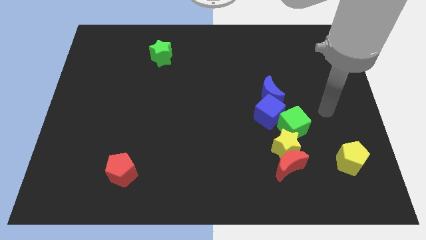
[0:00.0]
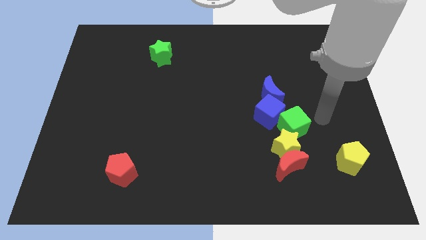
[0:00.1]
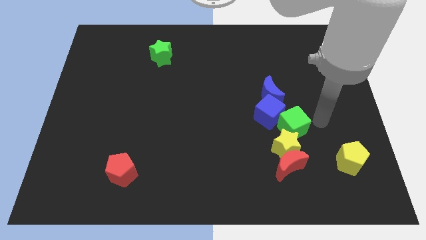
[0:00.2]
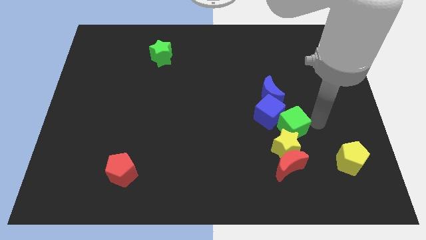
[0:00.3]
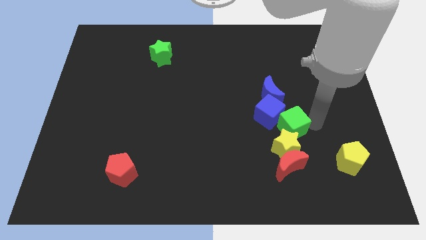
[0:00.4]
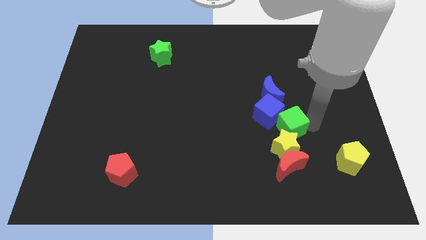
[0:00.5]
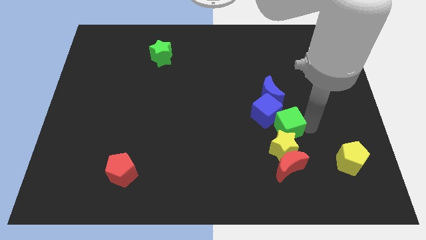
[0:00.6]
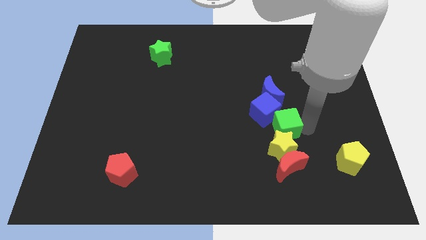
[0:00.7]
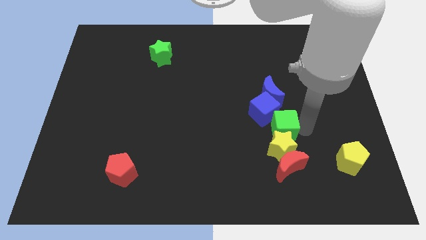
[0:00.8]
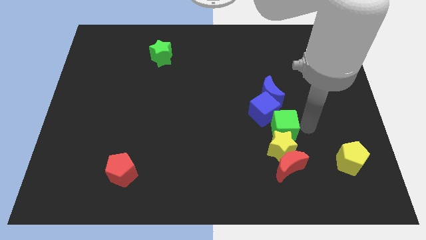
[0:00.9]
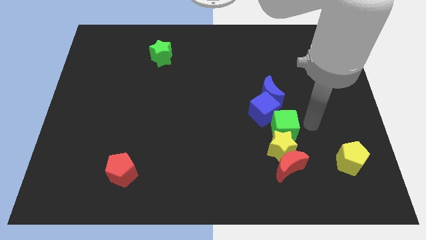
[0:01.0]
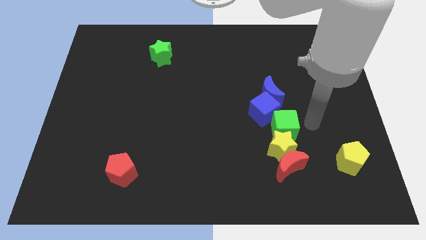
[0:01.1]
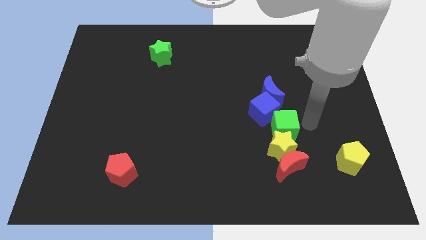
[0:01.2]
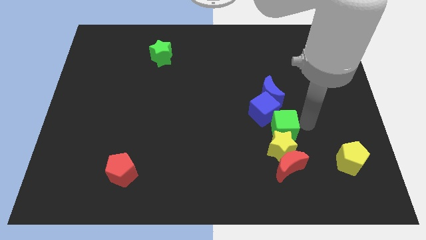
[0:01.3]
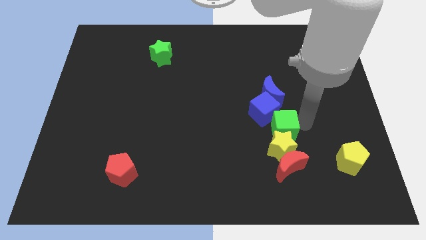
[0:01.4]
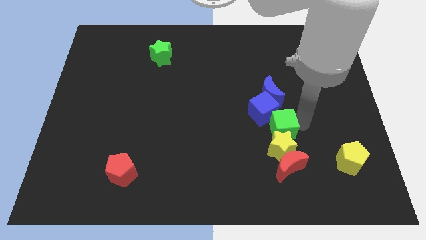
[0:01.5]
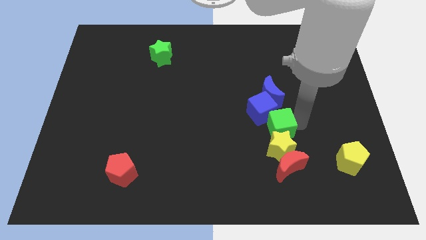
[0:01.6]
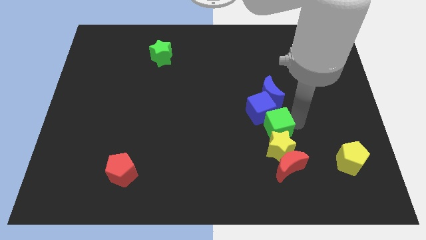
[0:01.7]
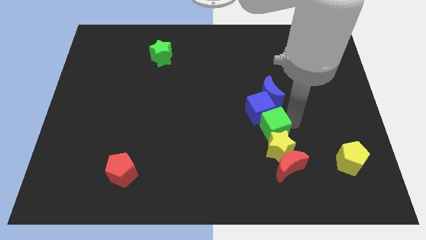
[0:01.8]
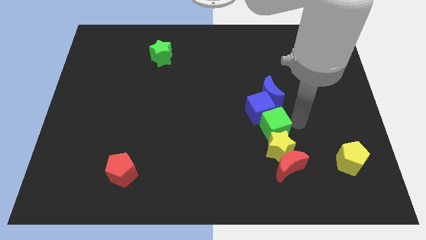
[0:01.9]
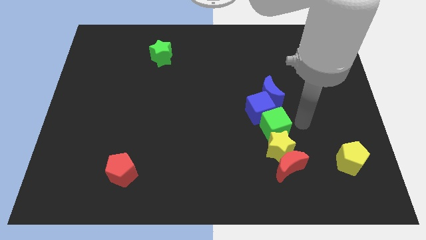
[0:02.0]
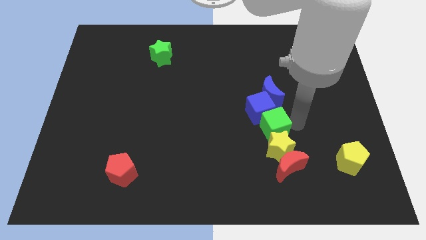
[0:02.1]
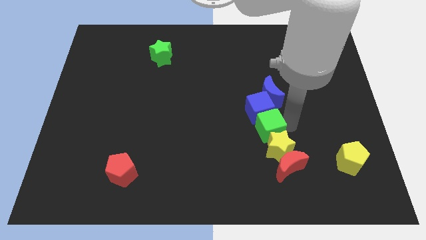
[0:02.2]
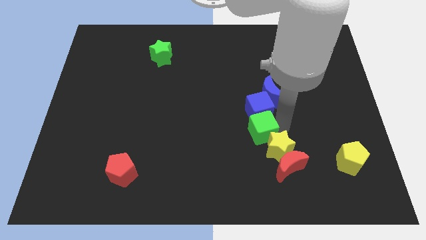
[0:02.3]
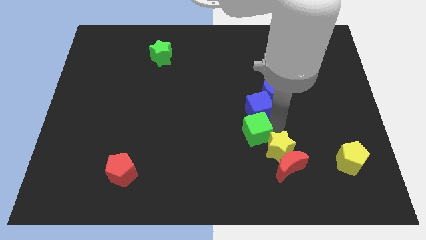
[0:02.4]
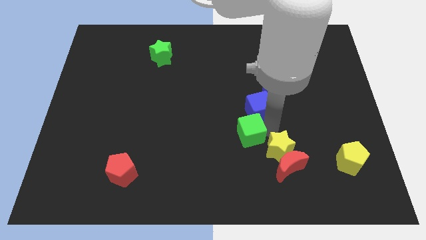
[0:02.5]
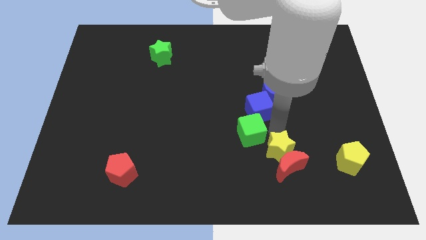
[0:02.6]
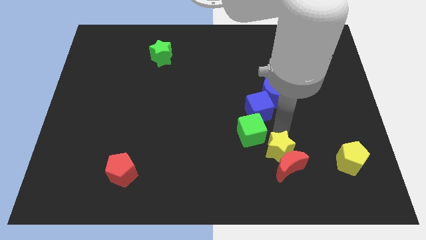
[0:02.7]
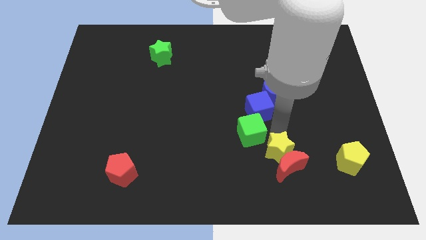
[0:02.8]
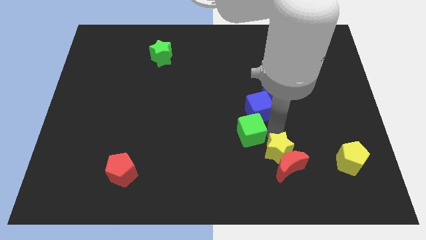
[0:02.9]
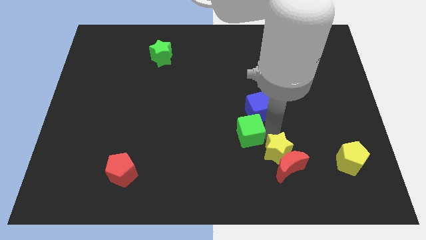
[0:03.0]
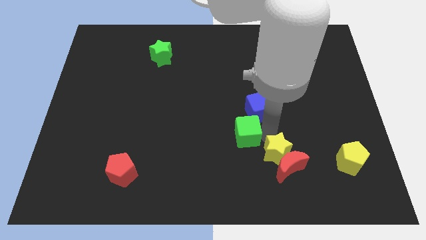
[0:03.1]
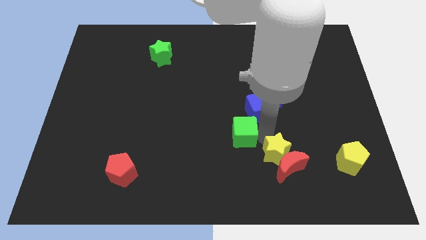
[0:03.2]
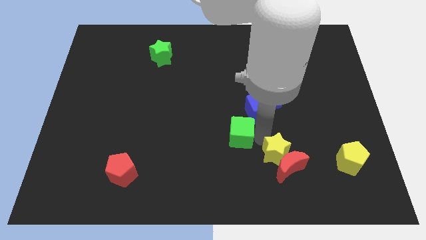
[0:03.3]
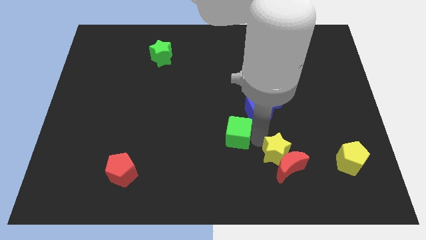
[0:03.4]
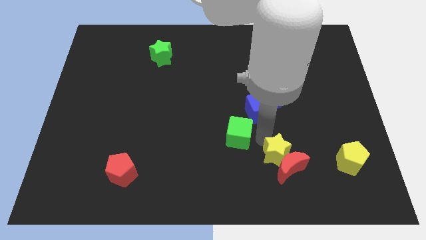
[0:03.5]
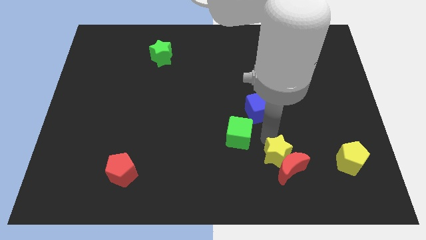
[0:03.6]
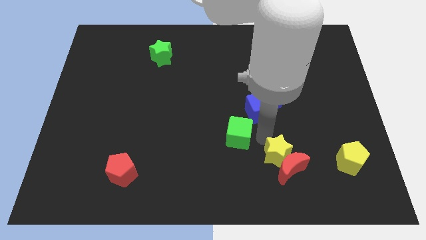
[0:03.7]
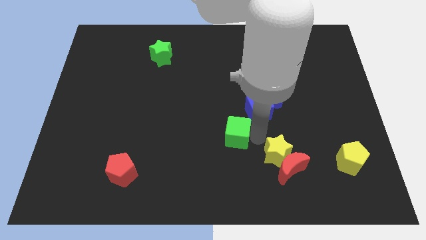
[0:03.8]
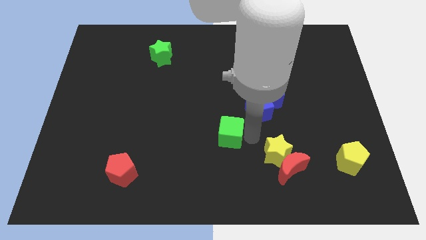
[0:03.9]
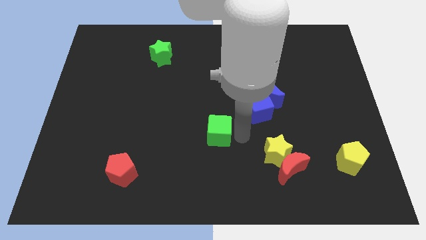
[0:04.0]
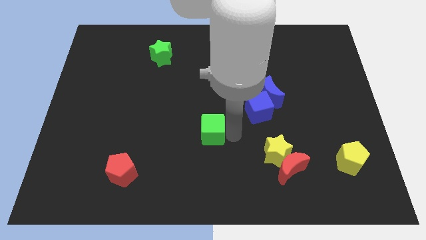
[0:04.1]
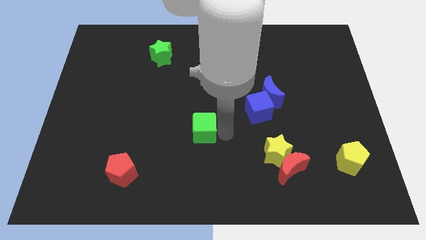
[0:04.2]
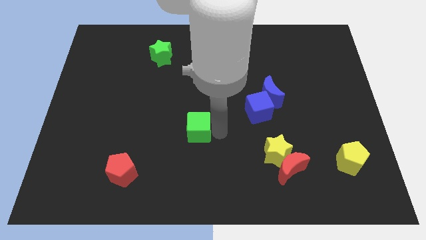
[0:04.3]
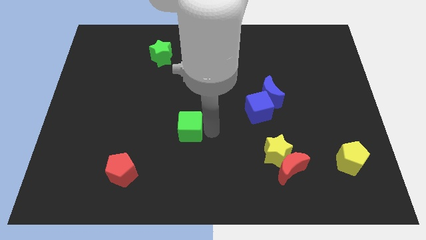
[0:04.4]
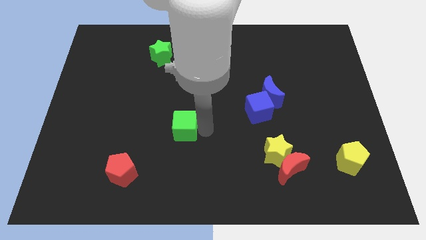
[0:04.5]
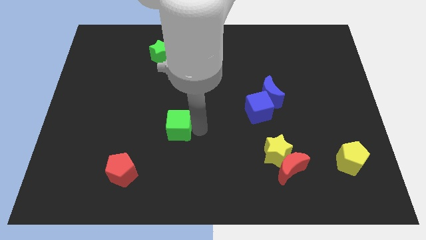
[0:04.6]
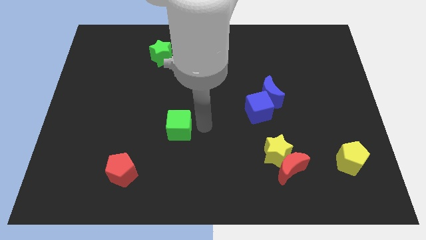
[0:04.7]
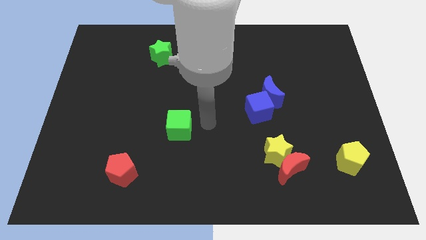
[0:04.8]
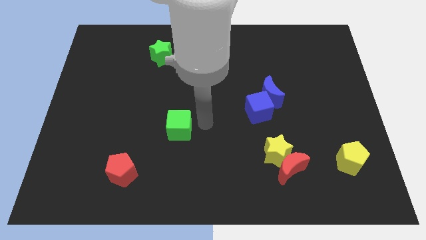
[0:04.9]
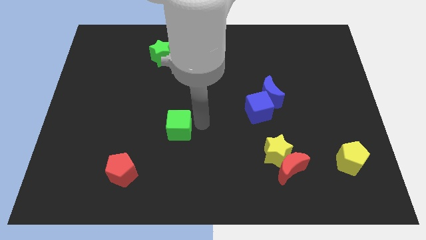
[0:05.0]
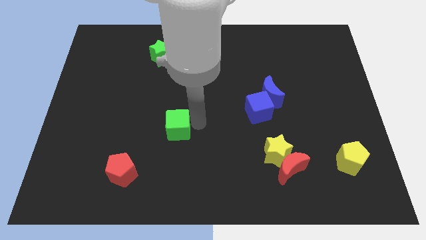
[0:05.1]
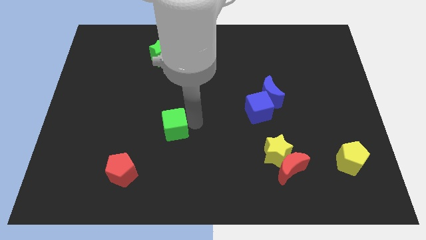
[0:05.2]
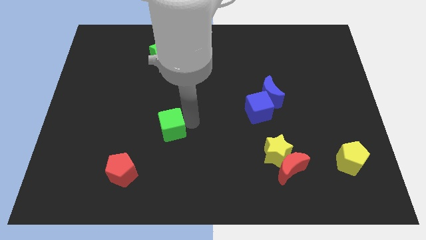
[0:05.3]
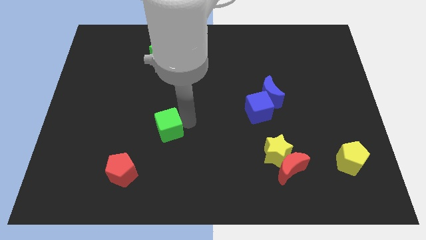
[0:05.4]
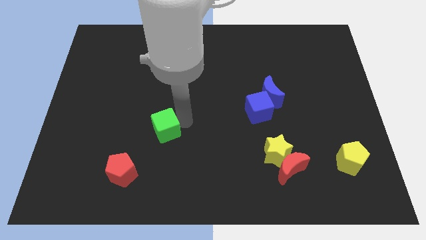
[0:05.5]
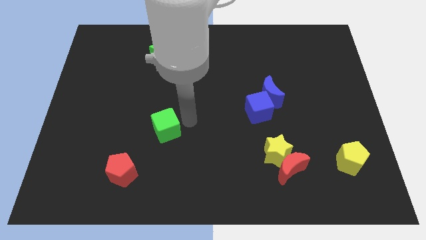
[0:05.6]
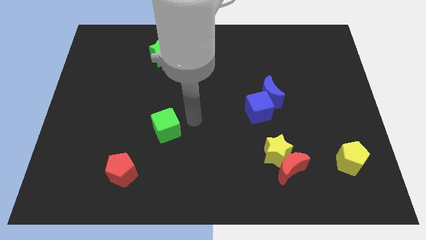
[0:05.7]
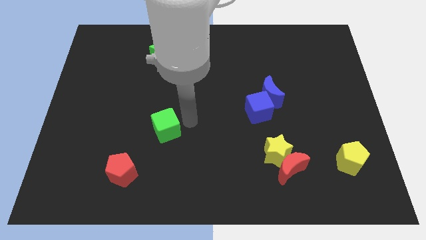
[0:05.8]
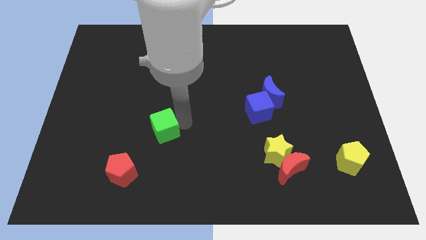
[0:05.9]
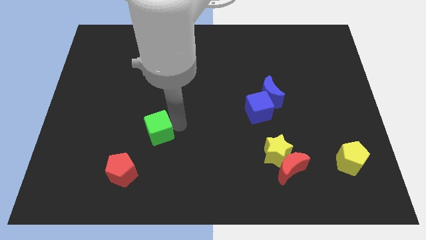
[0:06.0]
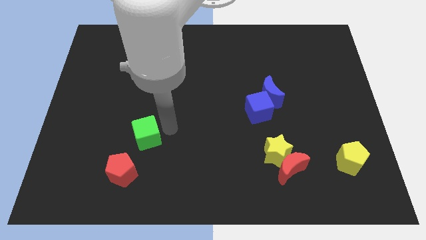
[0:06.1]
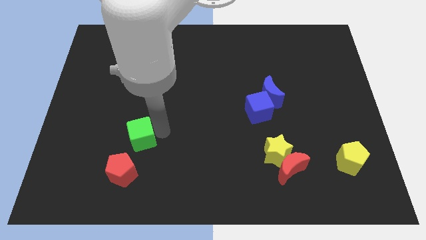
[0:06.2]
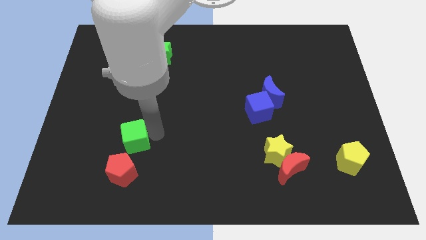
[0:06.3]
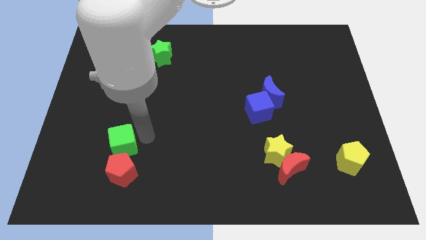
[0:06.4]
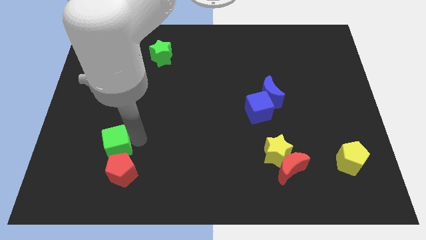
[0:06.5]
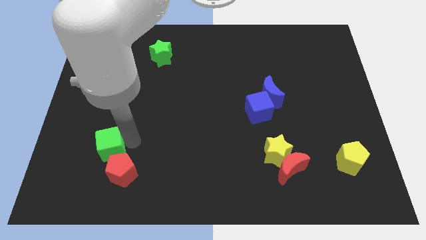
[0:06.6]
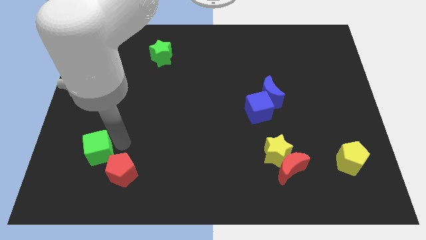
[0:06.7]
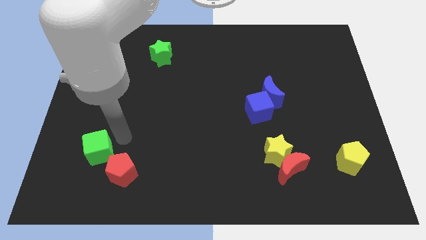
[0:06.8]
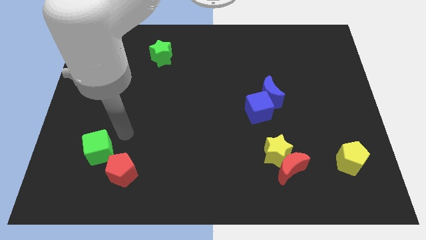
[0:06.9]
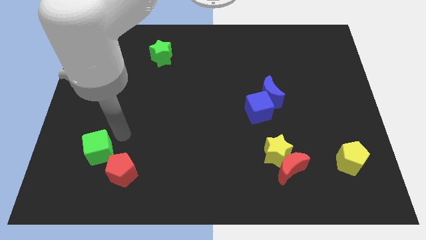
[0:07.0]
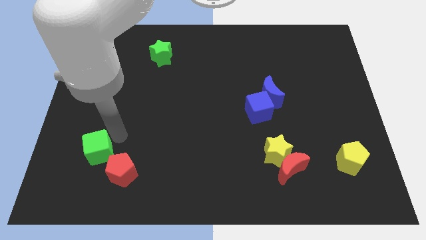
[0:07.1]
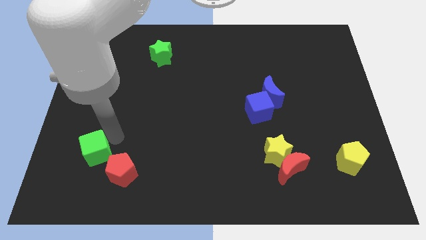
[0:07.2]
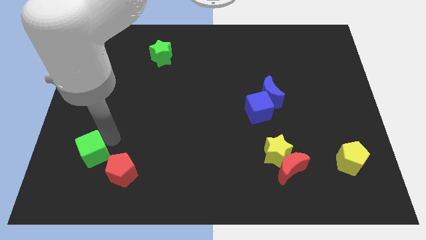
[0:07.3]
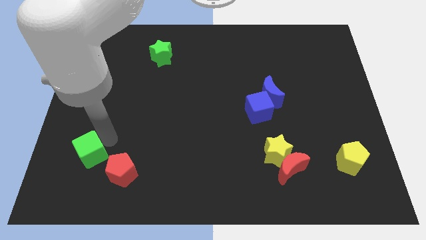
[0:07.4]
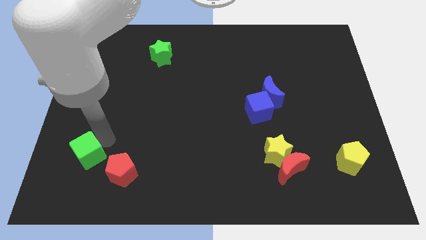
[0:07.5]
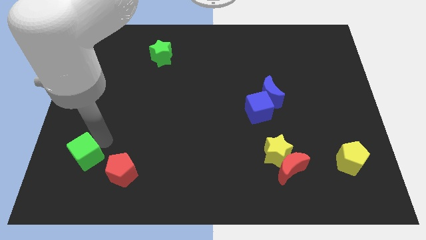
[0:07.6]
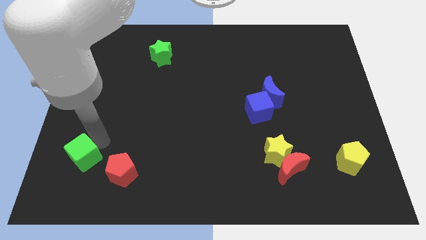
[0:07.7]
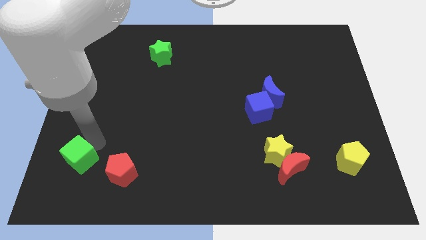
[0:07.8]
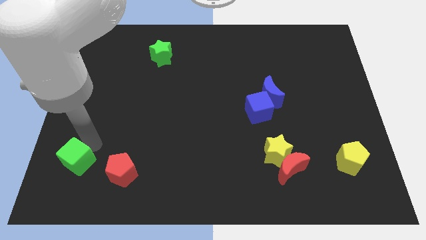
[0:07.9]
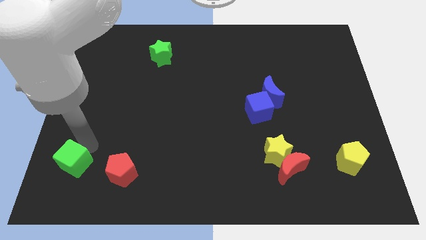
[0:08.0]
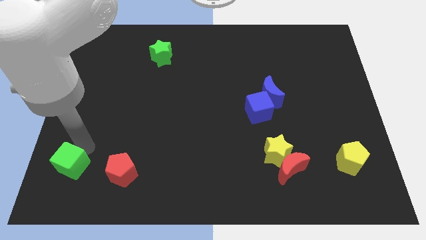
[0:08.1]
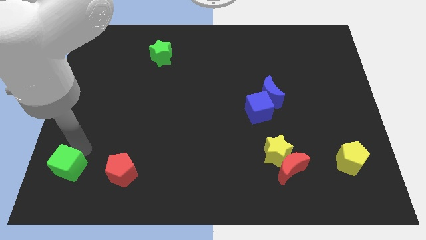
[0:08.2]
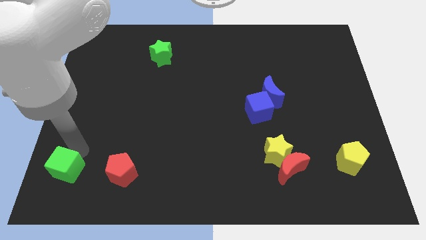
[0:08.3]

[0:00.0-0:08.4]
move the green cube to the bottom left corner
